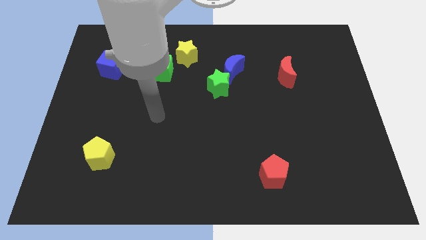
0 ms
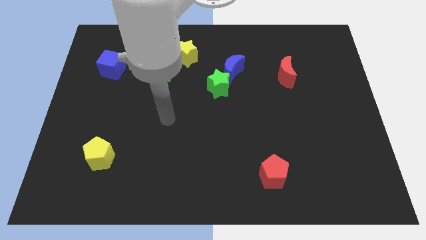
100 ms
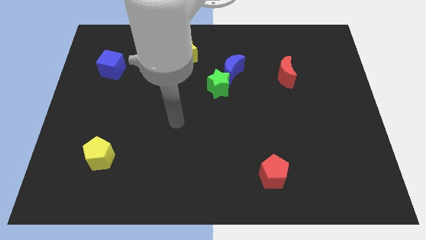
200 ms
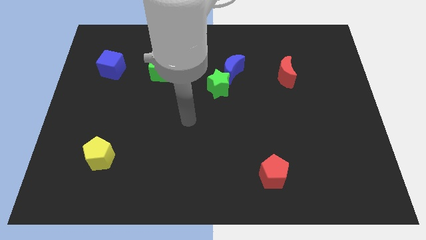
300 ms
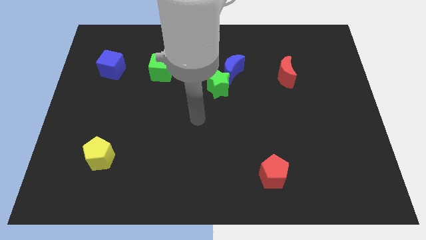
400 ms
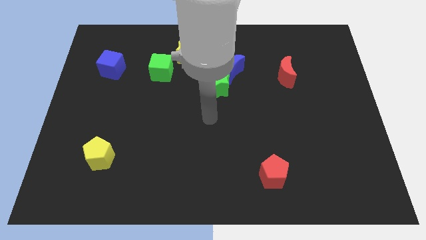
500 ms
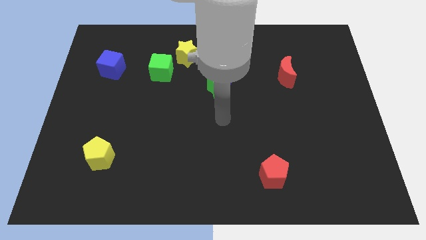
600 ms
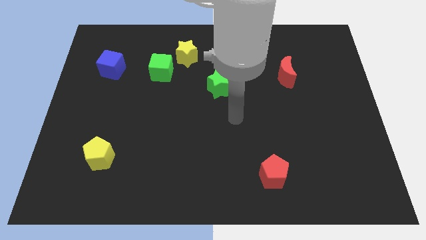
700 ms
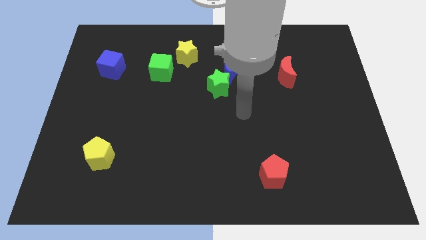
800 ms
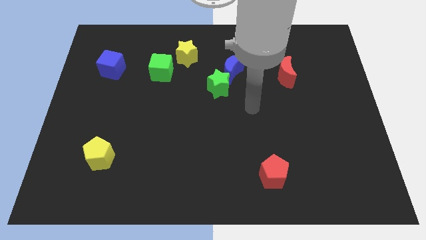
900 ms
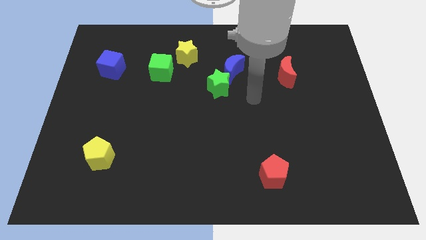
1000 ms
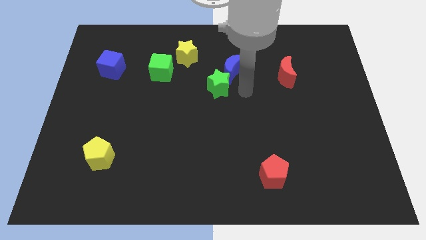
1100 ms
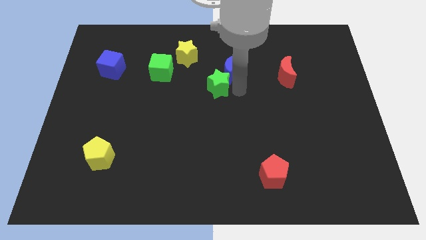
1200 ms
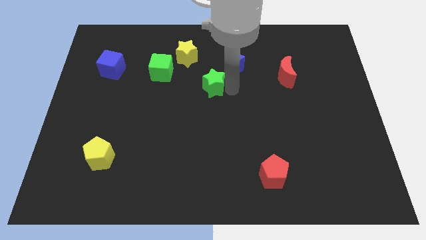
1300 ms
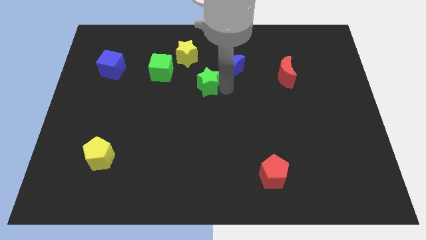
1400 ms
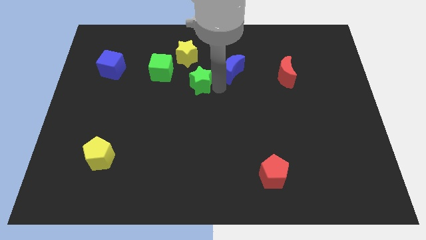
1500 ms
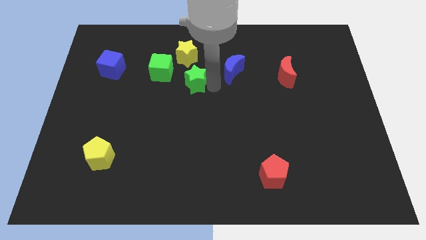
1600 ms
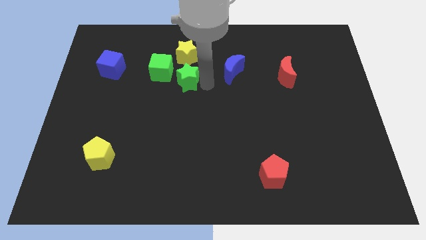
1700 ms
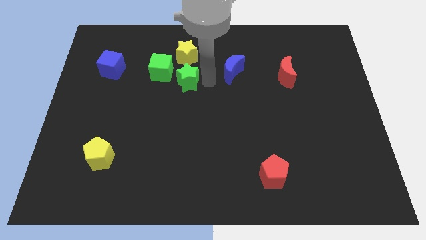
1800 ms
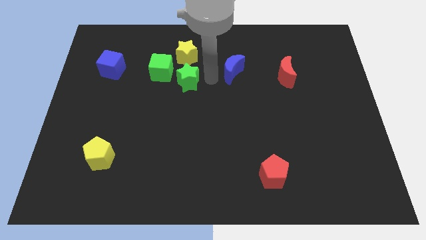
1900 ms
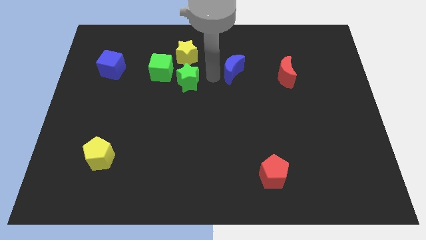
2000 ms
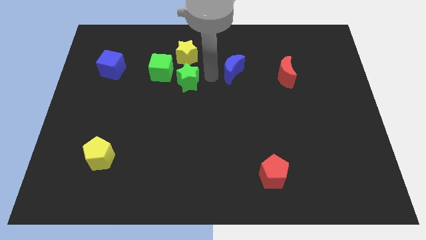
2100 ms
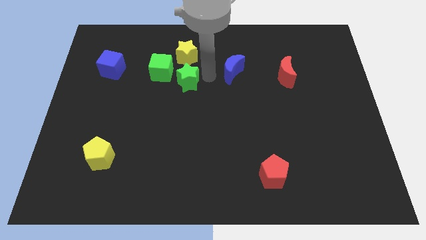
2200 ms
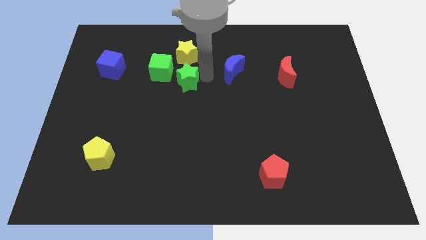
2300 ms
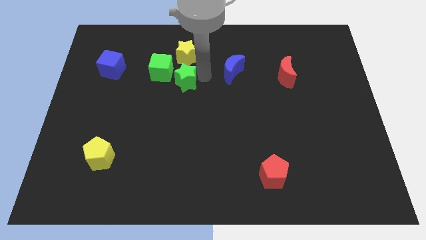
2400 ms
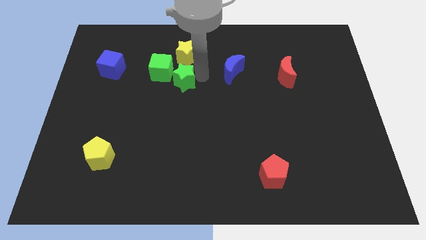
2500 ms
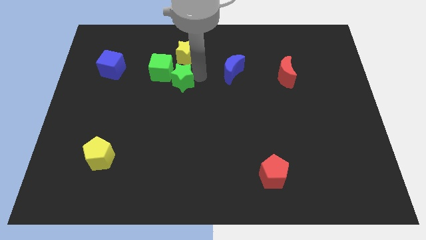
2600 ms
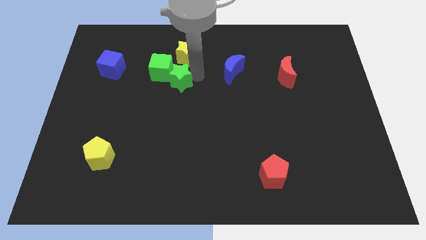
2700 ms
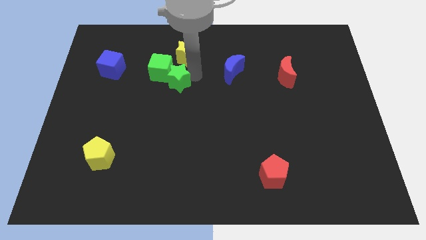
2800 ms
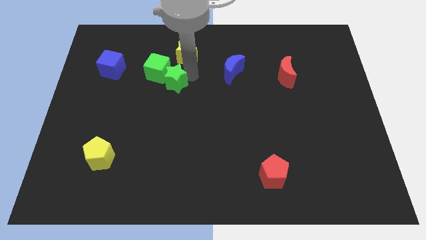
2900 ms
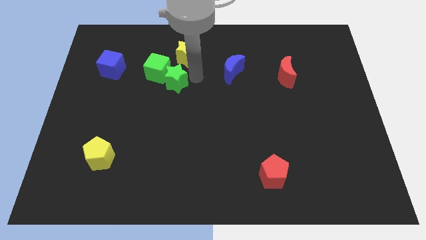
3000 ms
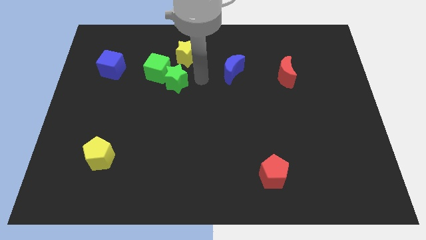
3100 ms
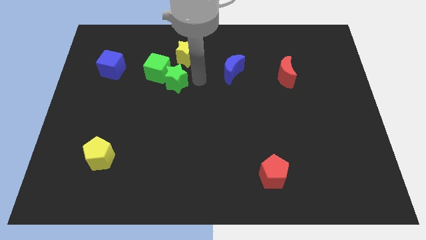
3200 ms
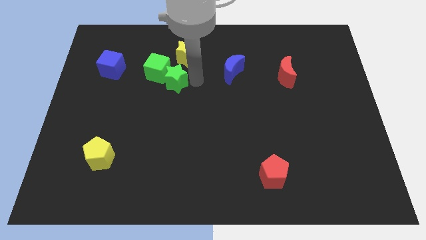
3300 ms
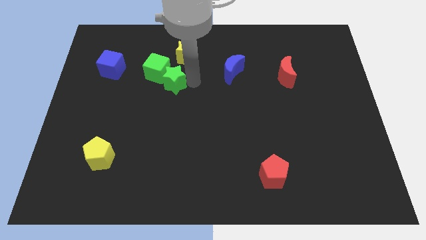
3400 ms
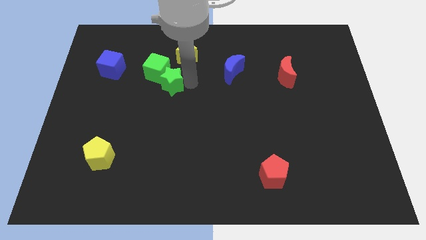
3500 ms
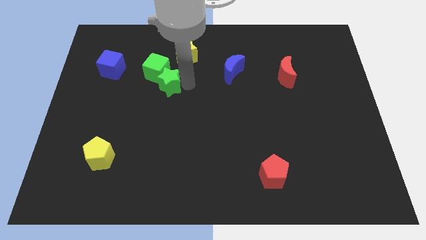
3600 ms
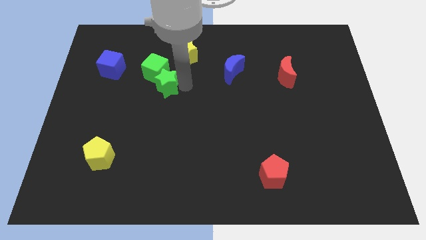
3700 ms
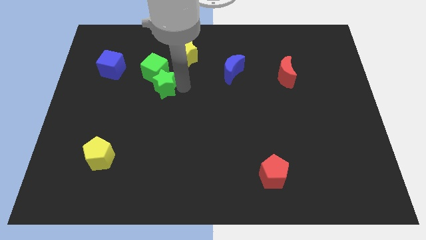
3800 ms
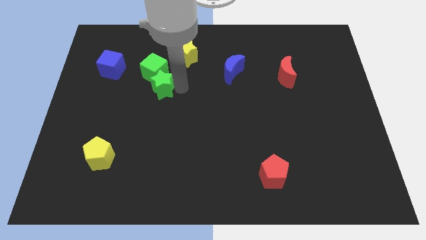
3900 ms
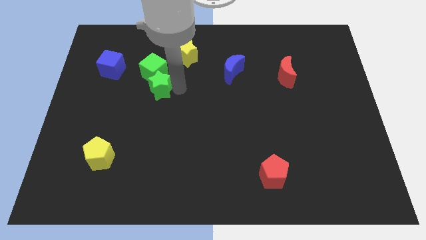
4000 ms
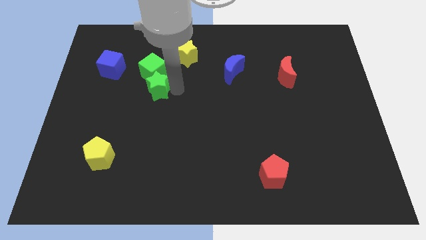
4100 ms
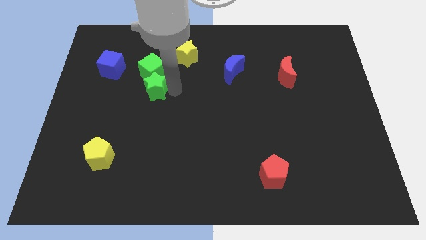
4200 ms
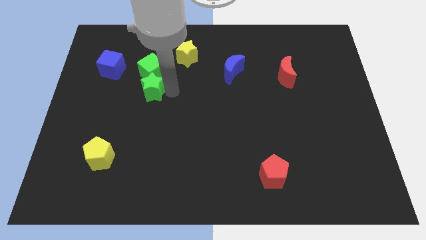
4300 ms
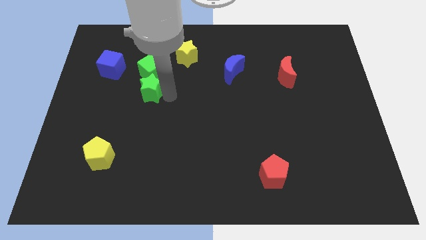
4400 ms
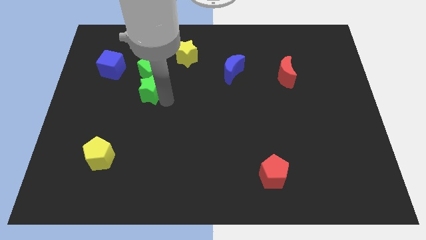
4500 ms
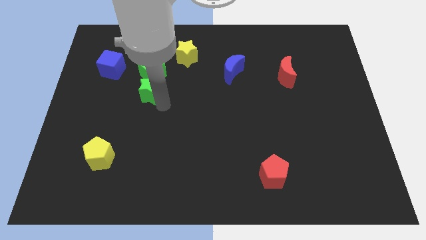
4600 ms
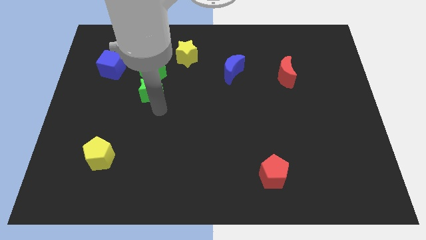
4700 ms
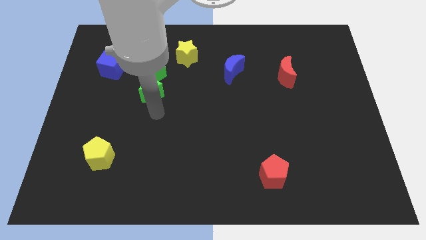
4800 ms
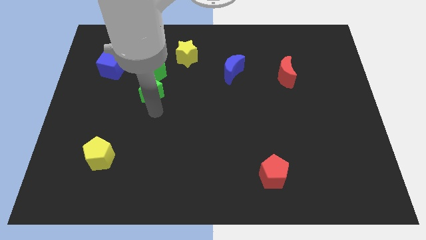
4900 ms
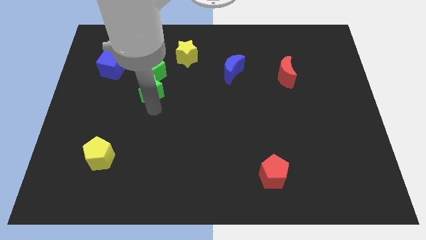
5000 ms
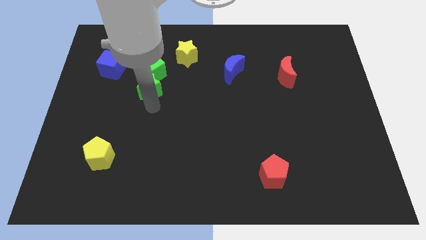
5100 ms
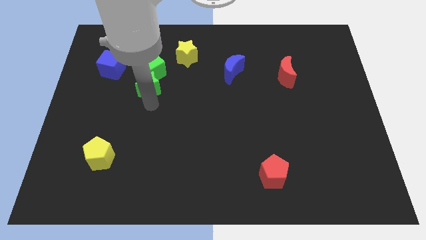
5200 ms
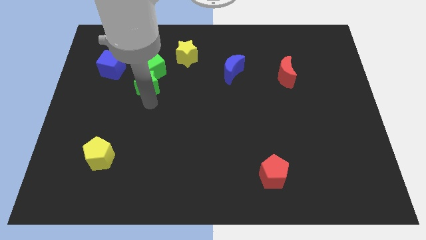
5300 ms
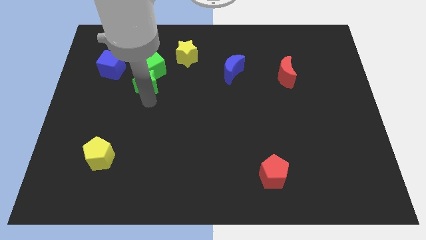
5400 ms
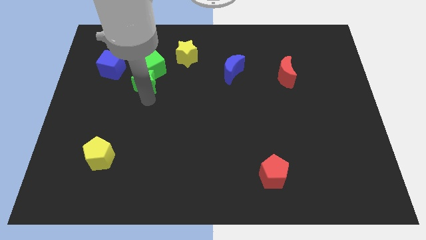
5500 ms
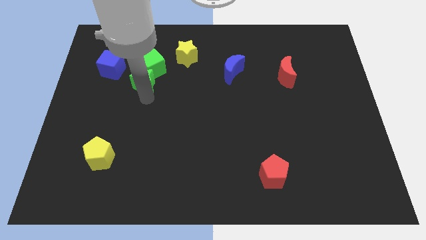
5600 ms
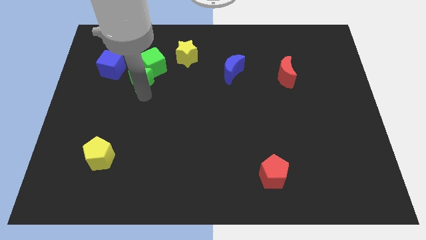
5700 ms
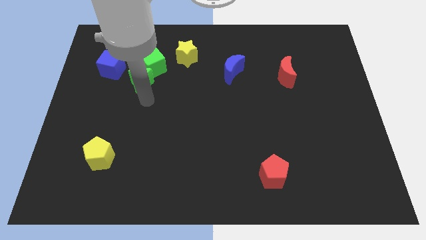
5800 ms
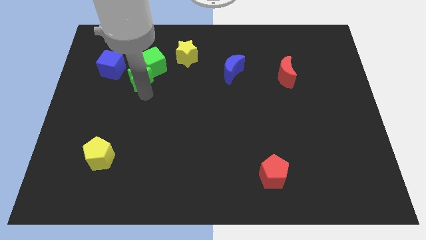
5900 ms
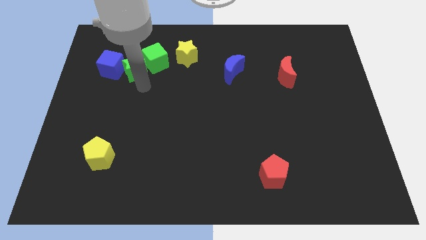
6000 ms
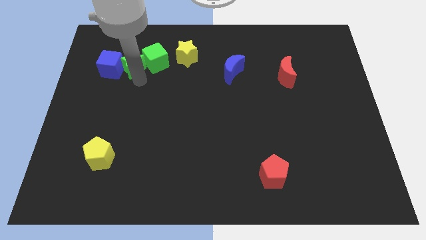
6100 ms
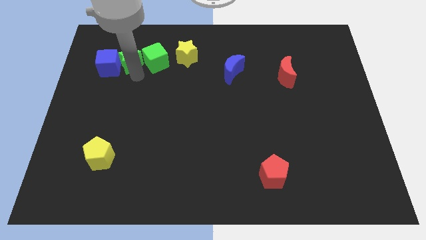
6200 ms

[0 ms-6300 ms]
push the green star to the top left of the green cube

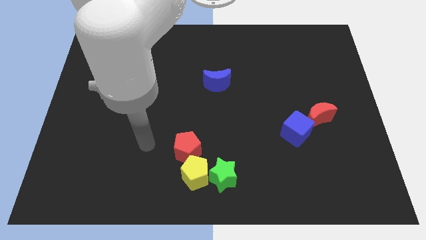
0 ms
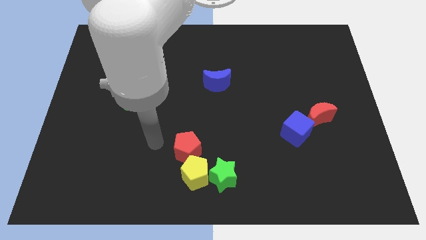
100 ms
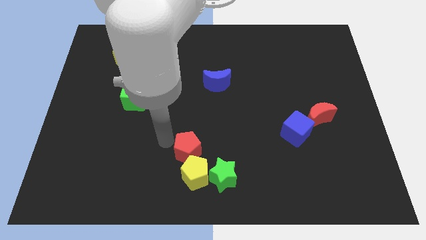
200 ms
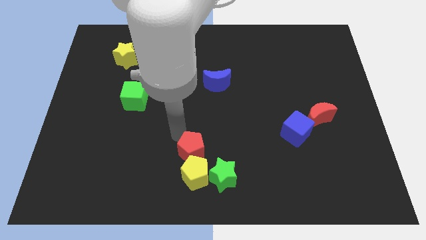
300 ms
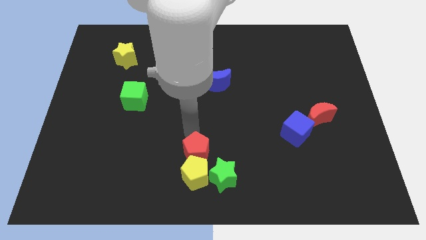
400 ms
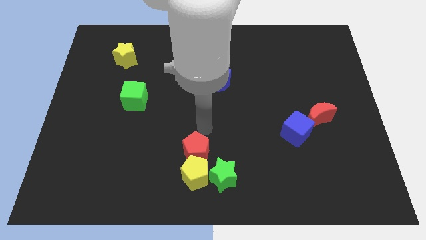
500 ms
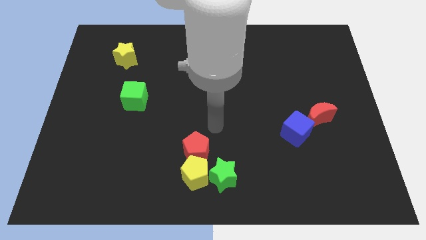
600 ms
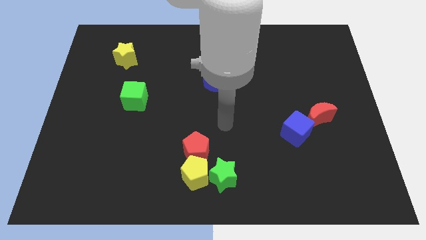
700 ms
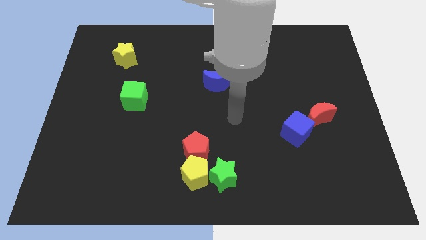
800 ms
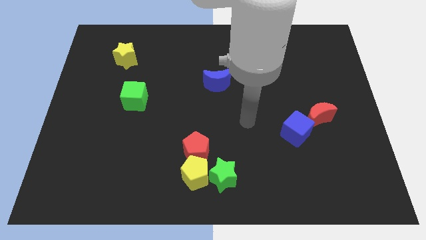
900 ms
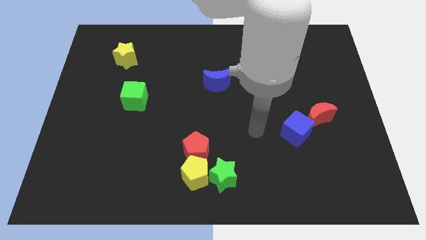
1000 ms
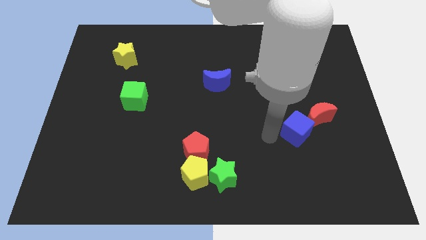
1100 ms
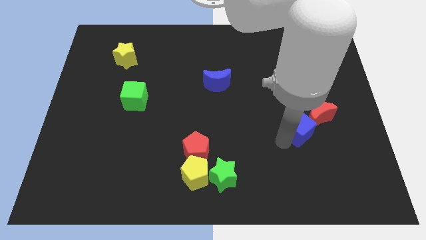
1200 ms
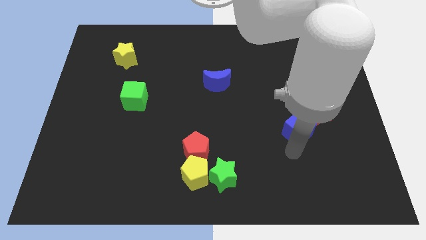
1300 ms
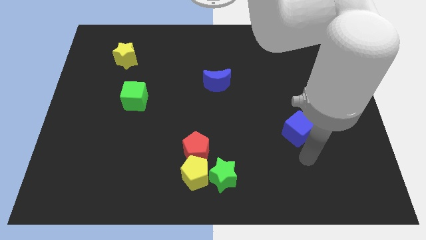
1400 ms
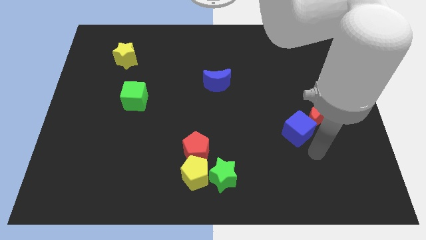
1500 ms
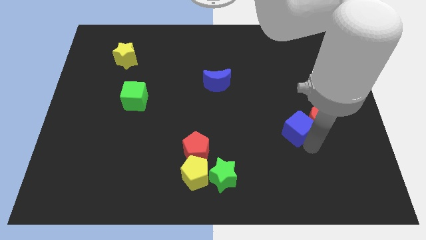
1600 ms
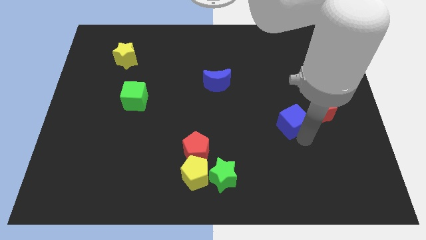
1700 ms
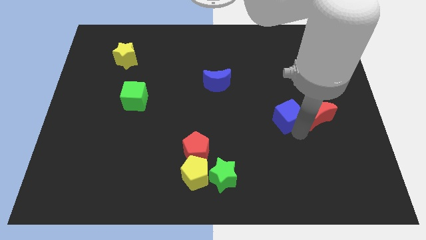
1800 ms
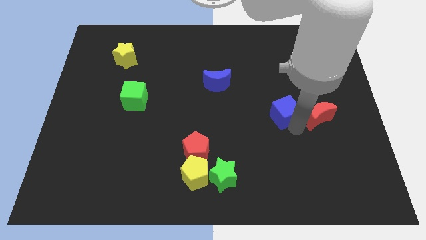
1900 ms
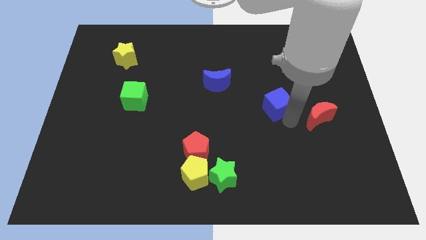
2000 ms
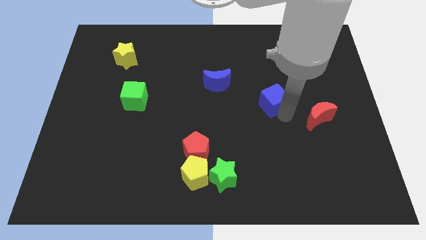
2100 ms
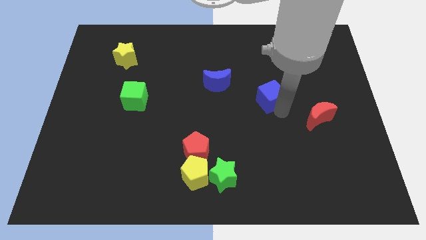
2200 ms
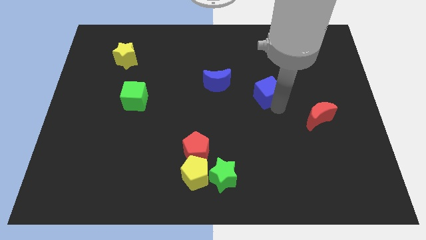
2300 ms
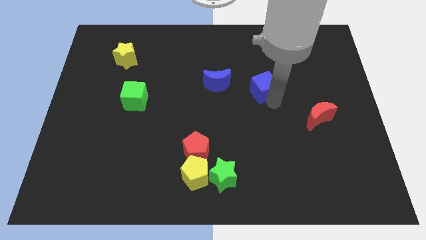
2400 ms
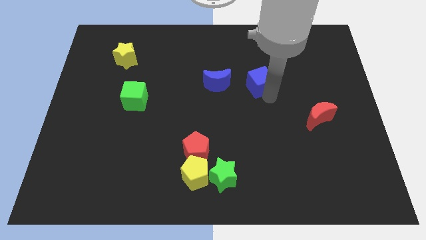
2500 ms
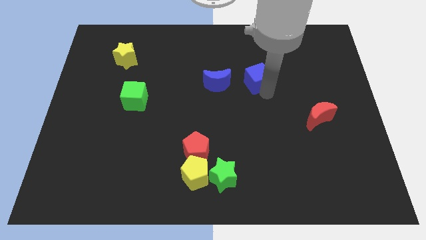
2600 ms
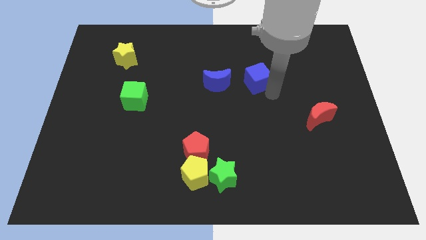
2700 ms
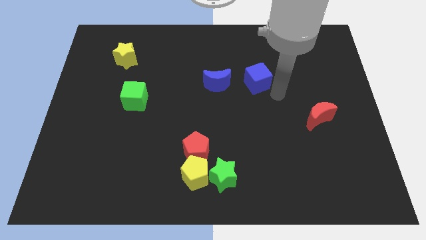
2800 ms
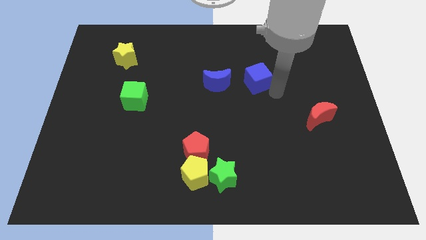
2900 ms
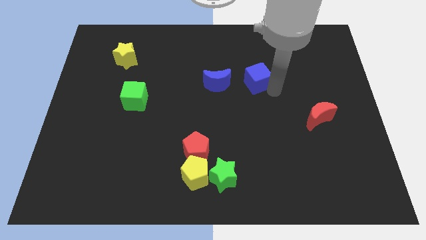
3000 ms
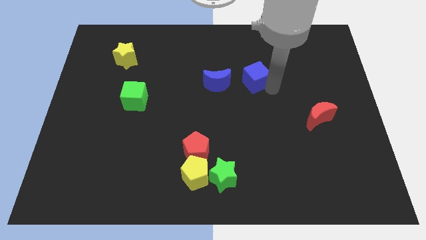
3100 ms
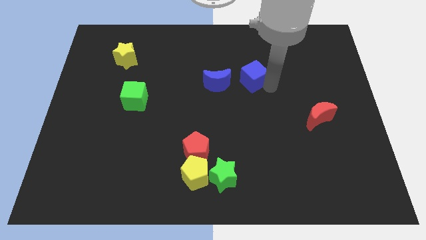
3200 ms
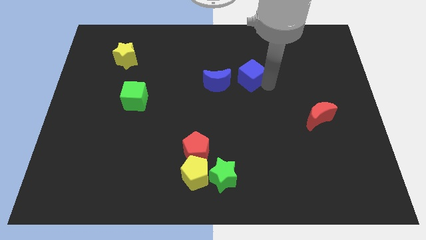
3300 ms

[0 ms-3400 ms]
slide the blue cube to the top right of the blue moon
